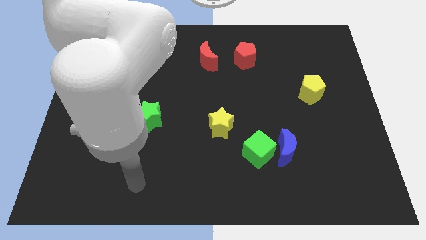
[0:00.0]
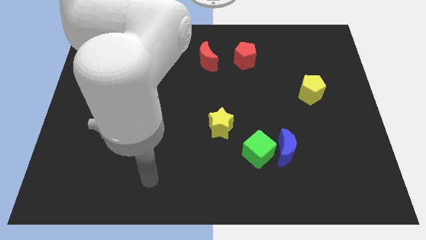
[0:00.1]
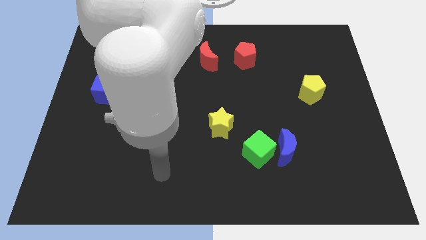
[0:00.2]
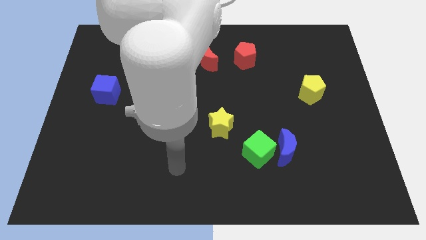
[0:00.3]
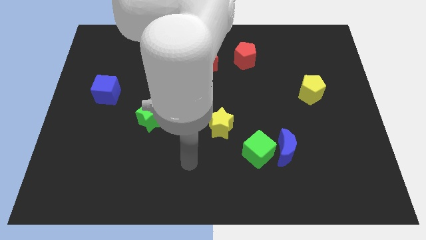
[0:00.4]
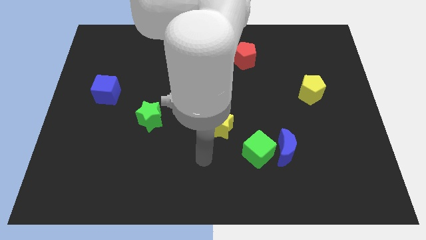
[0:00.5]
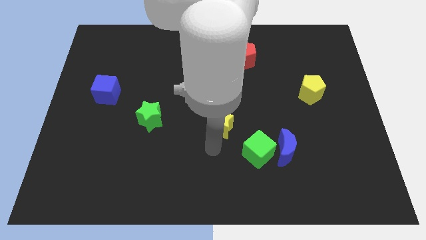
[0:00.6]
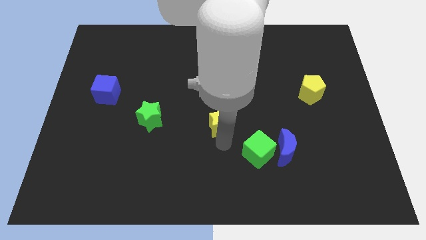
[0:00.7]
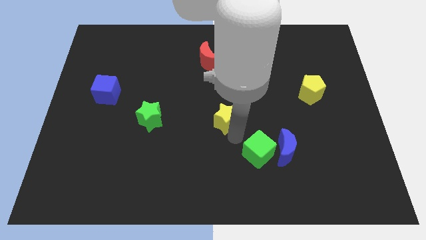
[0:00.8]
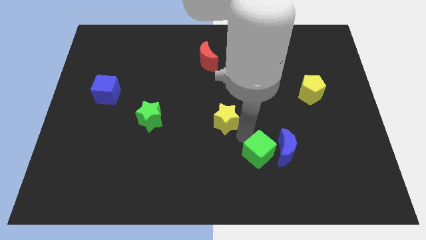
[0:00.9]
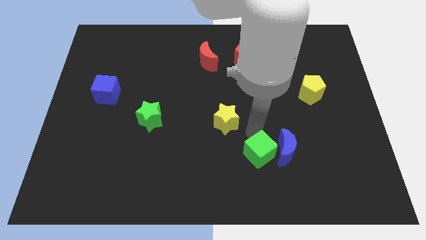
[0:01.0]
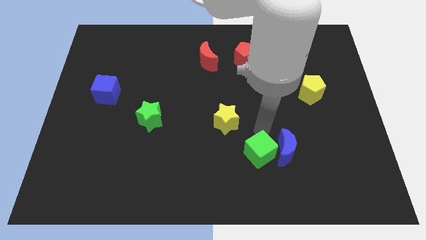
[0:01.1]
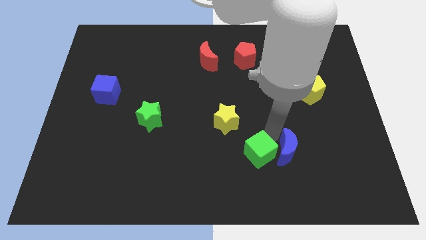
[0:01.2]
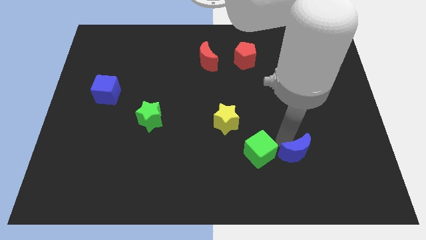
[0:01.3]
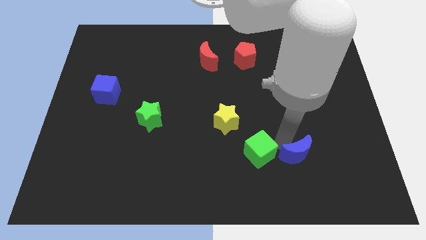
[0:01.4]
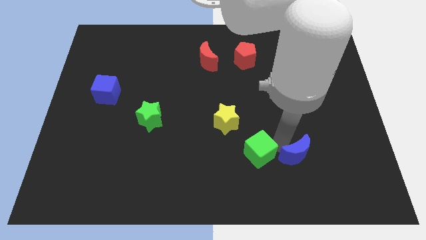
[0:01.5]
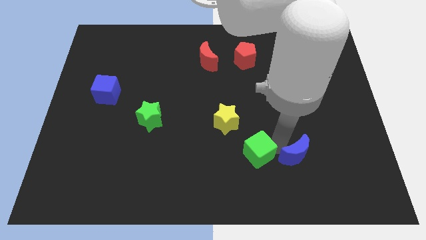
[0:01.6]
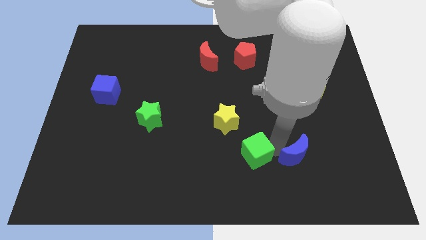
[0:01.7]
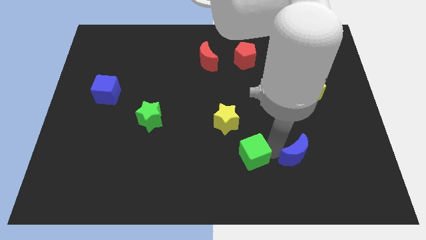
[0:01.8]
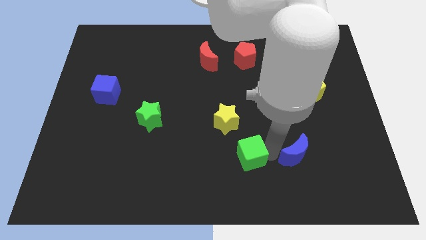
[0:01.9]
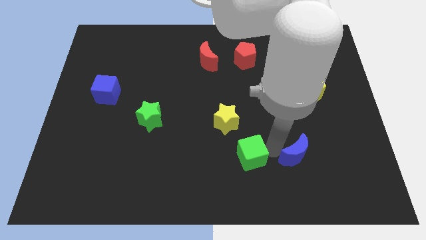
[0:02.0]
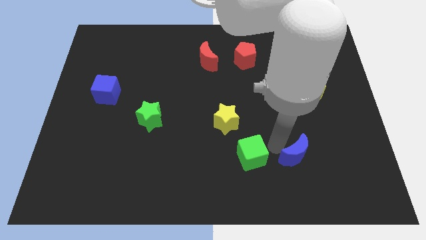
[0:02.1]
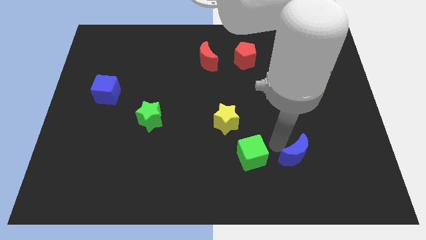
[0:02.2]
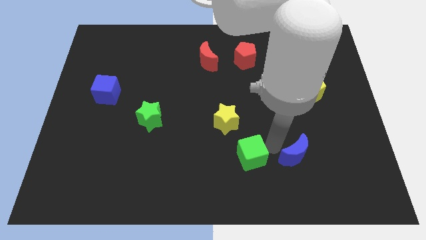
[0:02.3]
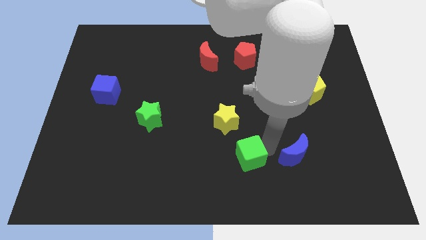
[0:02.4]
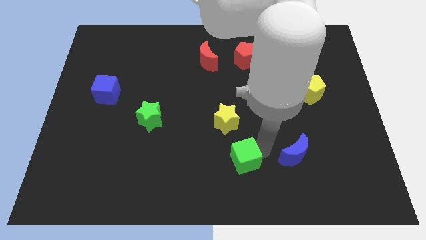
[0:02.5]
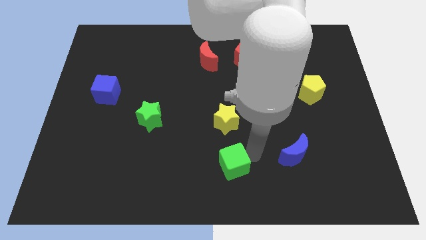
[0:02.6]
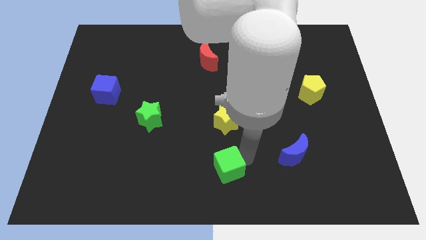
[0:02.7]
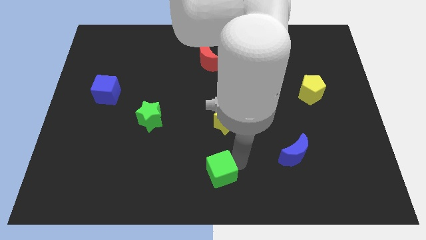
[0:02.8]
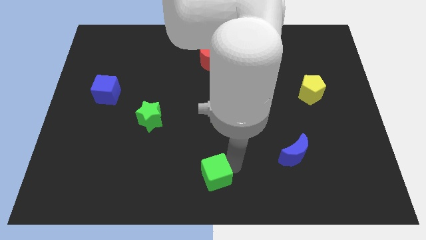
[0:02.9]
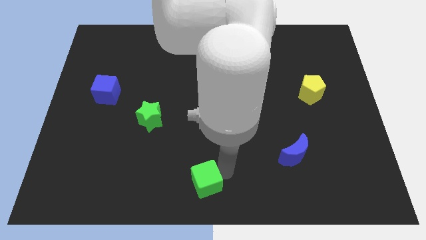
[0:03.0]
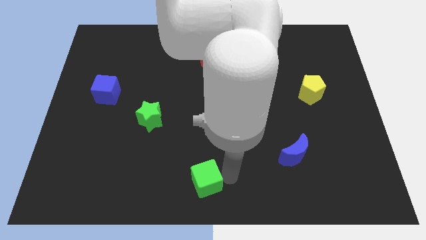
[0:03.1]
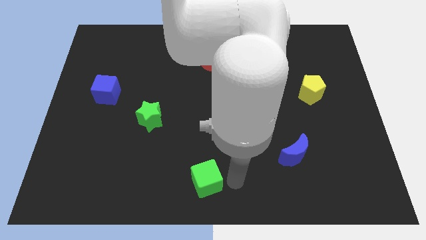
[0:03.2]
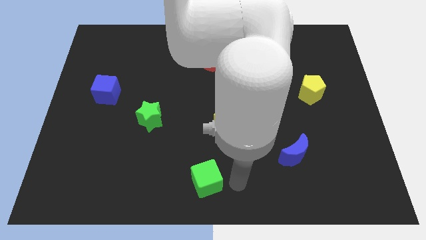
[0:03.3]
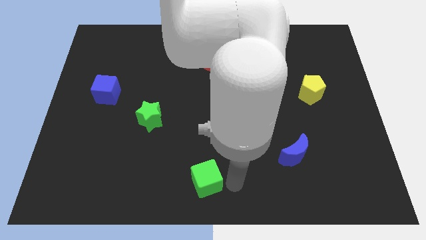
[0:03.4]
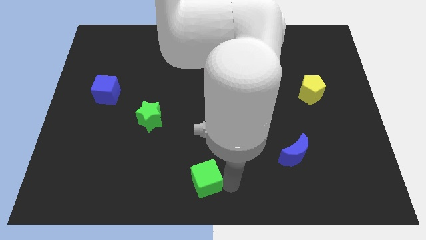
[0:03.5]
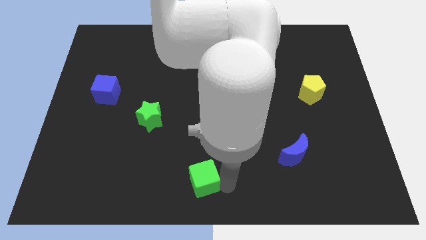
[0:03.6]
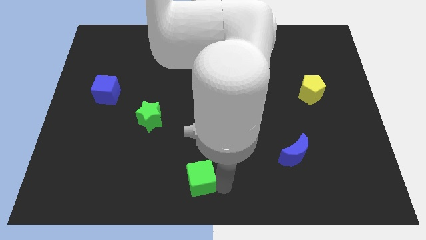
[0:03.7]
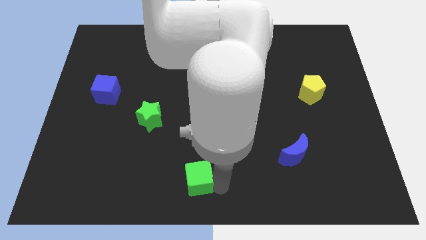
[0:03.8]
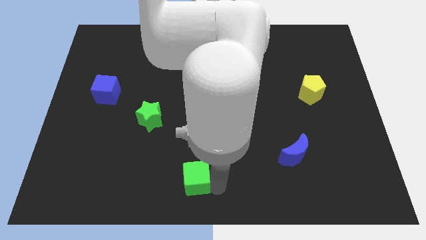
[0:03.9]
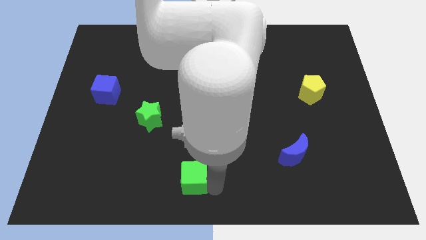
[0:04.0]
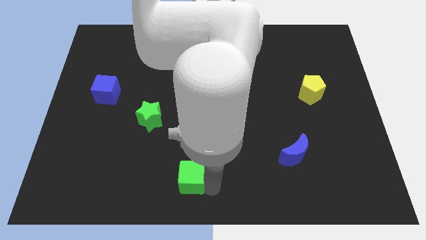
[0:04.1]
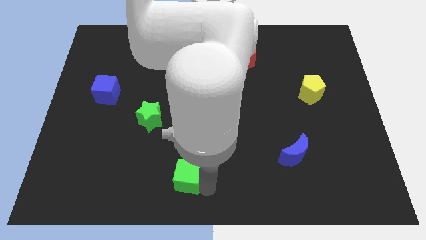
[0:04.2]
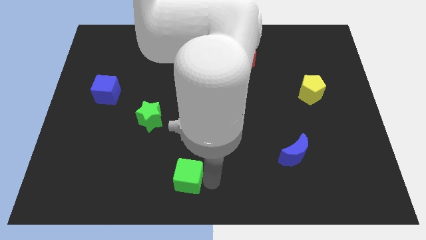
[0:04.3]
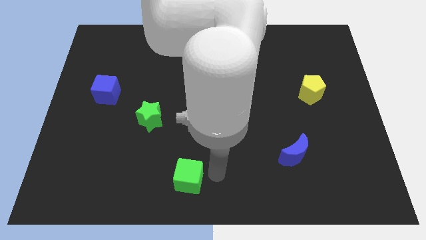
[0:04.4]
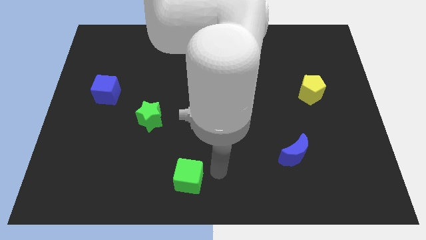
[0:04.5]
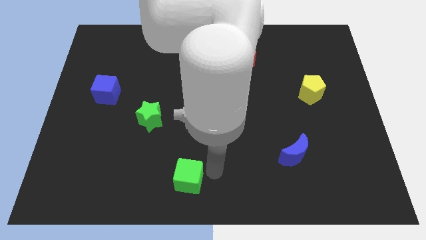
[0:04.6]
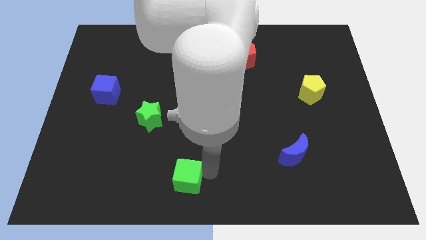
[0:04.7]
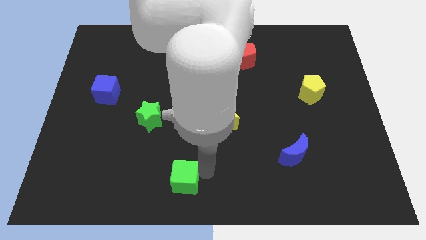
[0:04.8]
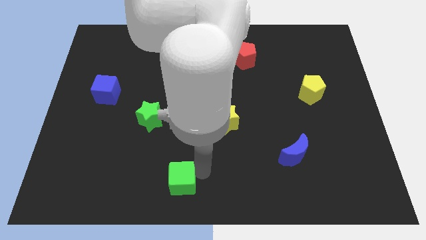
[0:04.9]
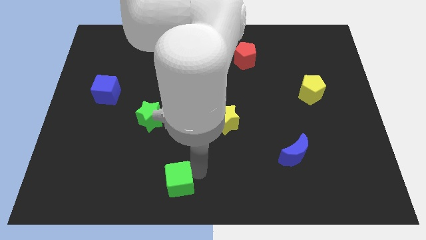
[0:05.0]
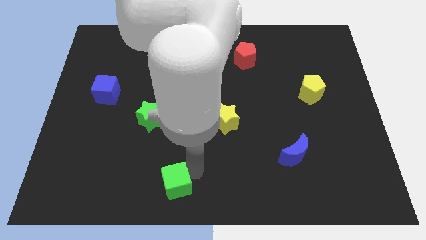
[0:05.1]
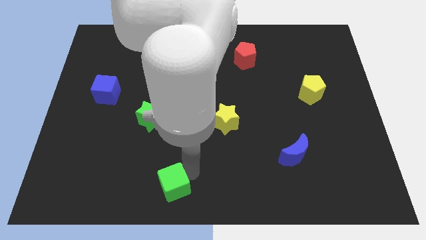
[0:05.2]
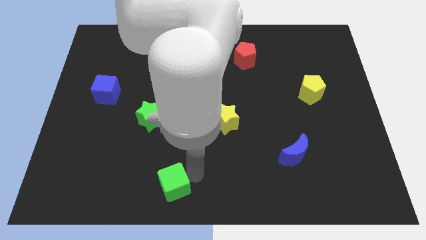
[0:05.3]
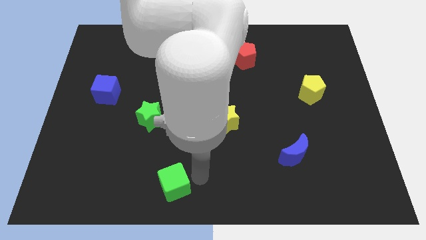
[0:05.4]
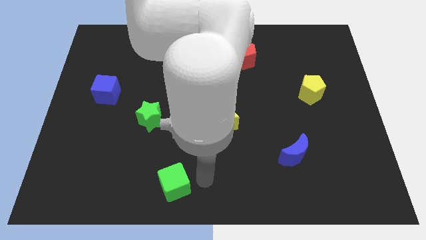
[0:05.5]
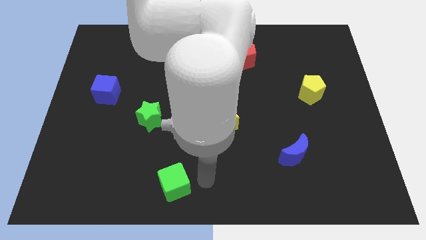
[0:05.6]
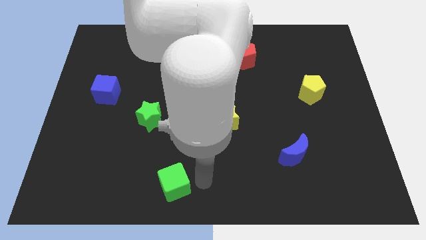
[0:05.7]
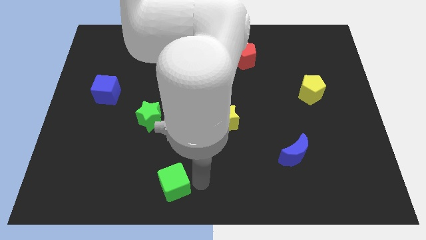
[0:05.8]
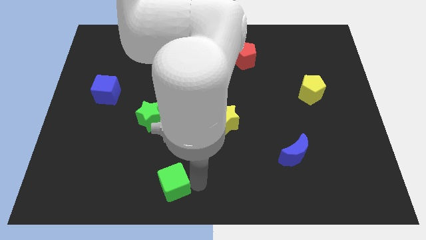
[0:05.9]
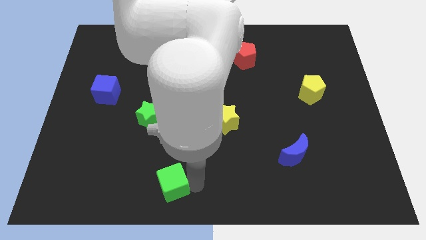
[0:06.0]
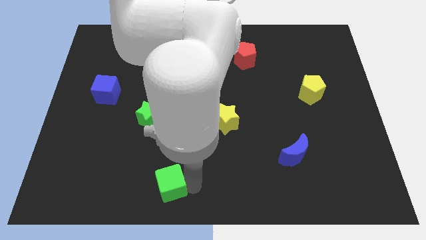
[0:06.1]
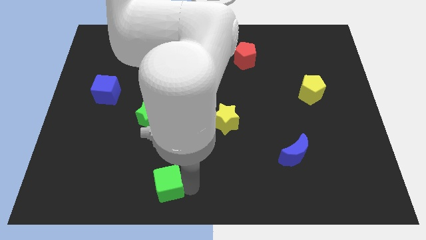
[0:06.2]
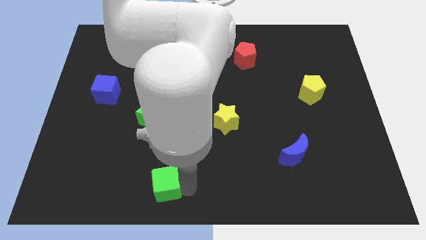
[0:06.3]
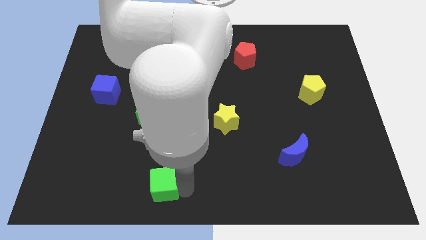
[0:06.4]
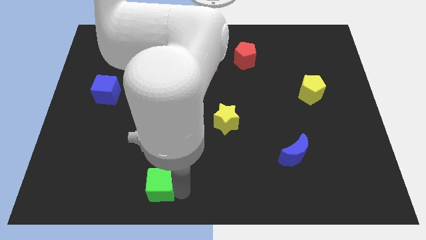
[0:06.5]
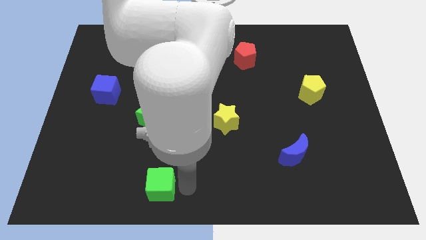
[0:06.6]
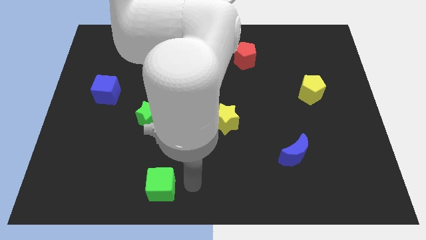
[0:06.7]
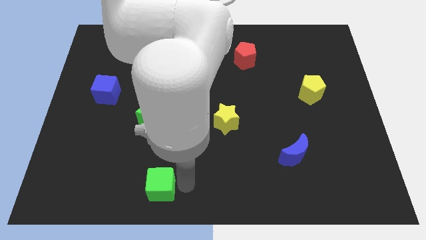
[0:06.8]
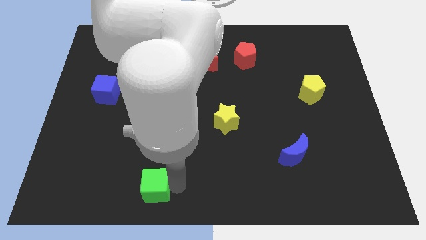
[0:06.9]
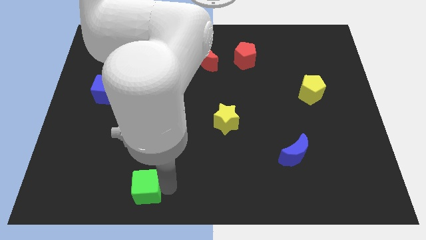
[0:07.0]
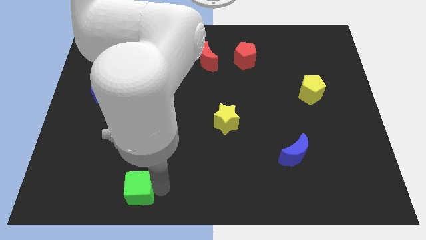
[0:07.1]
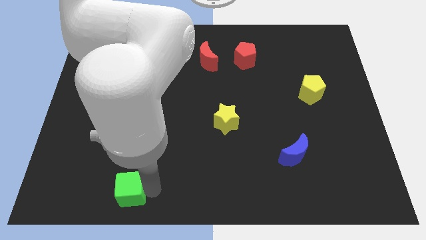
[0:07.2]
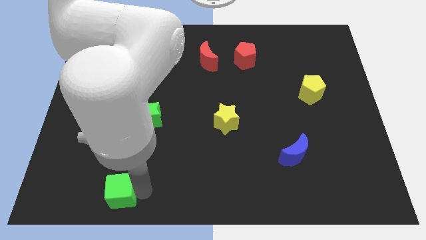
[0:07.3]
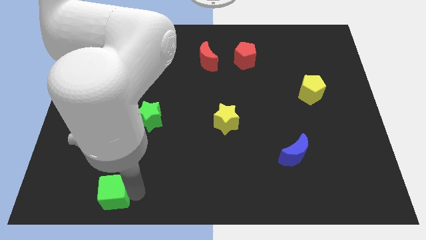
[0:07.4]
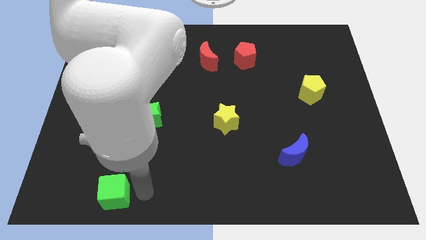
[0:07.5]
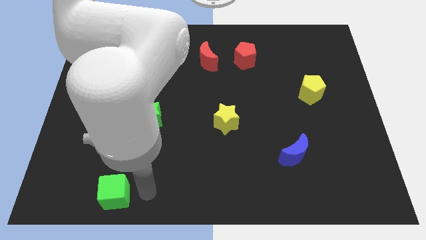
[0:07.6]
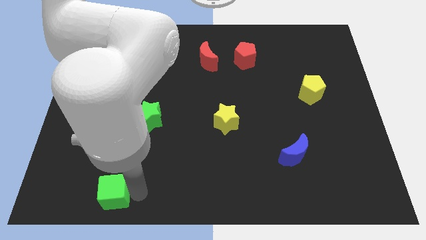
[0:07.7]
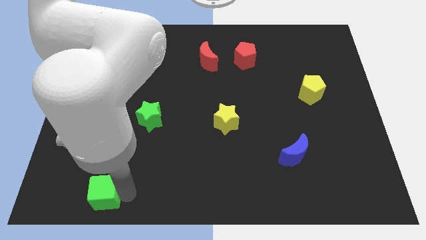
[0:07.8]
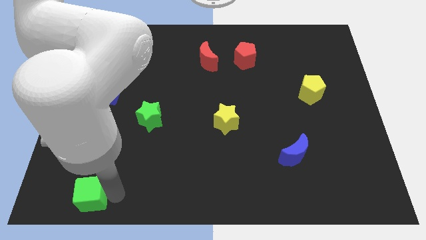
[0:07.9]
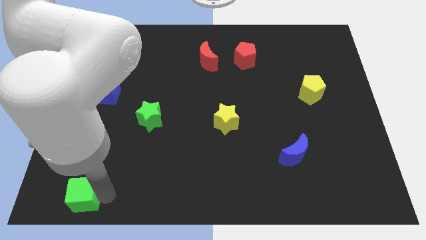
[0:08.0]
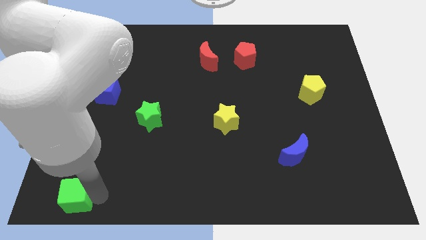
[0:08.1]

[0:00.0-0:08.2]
put the green cube to the lower left corner
